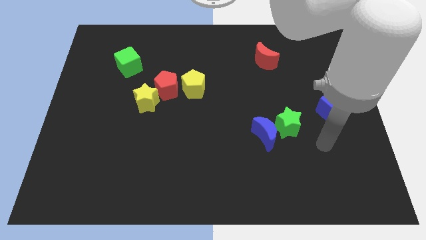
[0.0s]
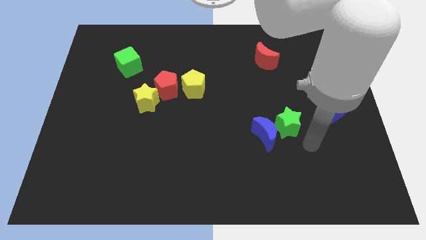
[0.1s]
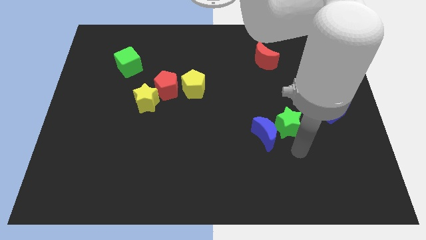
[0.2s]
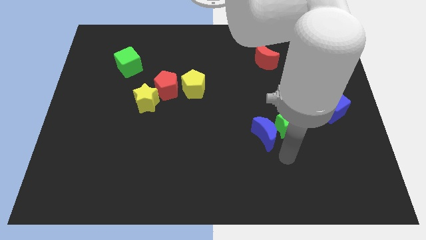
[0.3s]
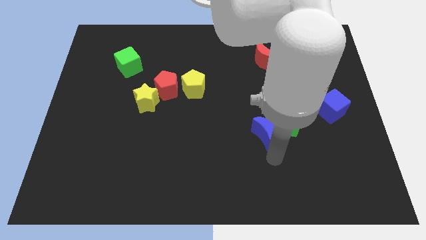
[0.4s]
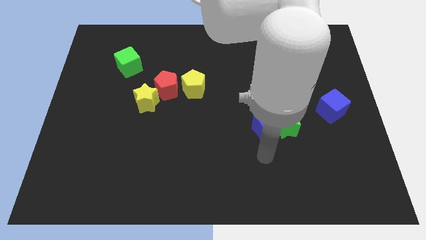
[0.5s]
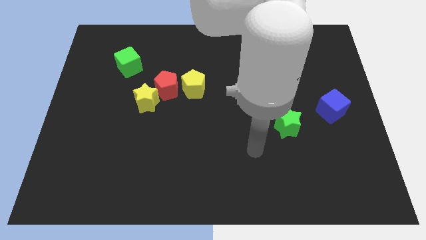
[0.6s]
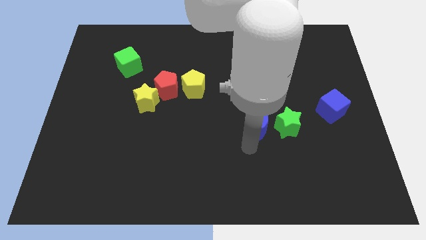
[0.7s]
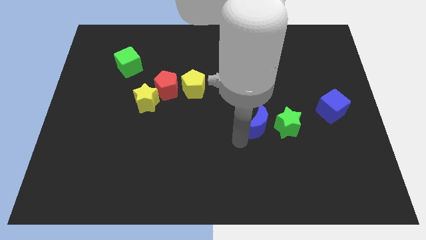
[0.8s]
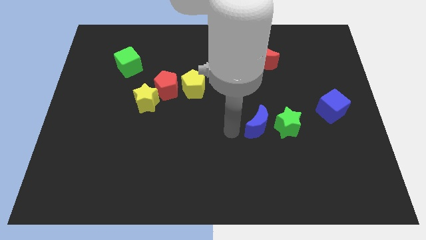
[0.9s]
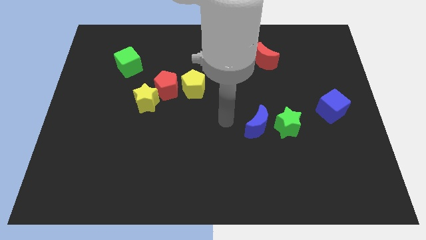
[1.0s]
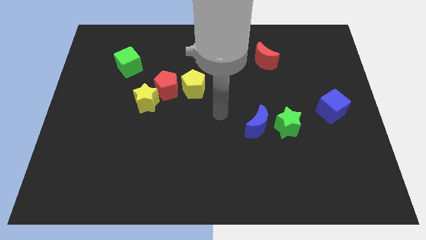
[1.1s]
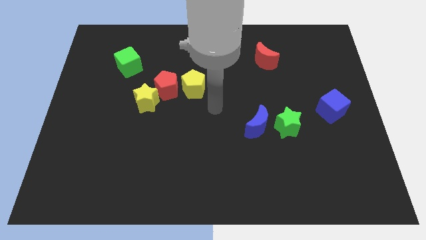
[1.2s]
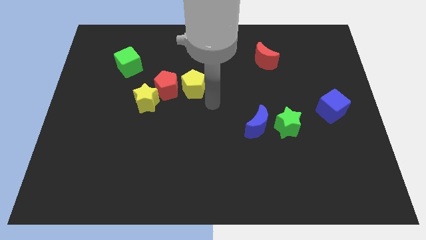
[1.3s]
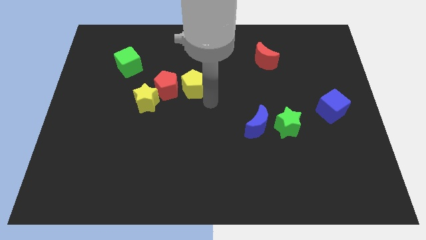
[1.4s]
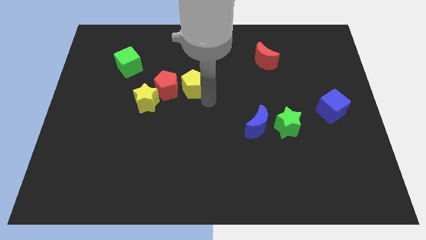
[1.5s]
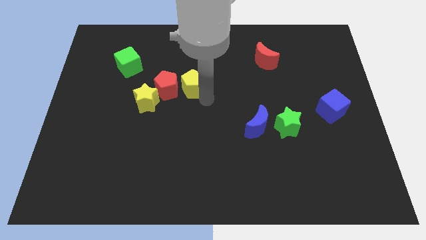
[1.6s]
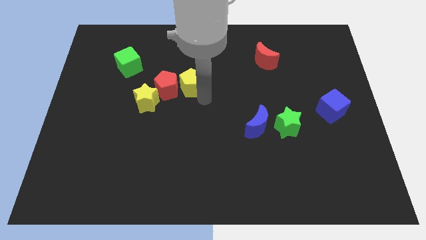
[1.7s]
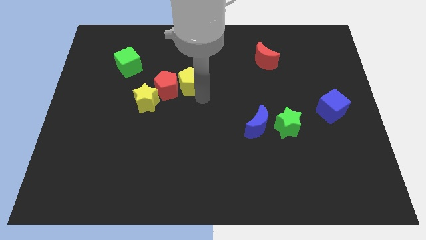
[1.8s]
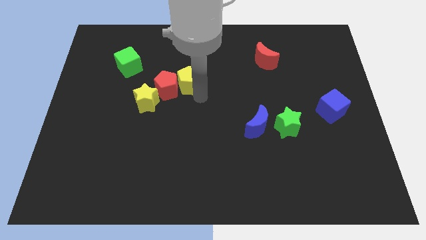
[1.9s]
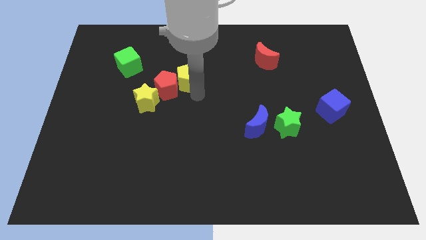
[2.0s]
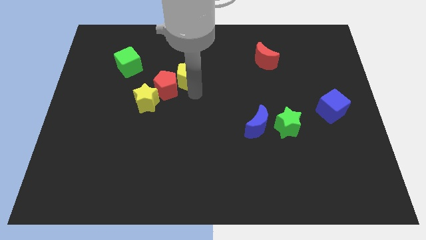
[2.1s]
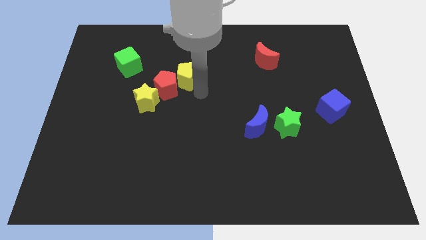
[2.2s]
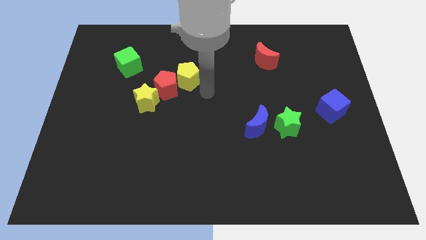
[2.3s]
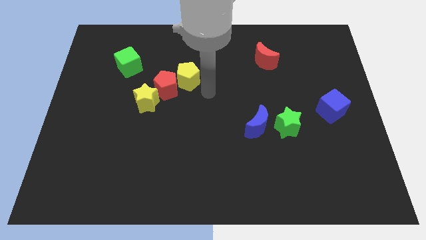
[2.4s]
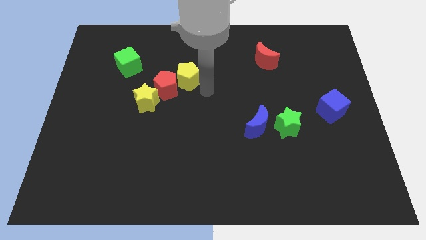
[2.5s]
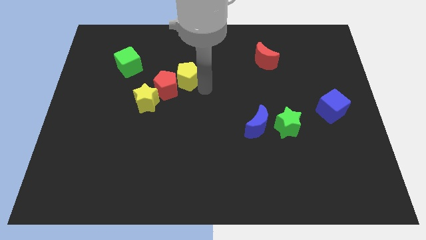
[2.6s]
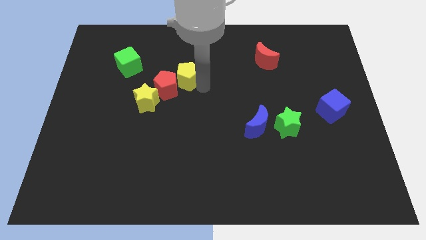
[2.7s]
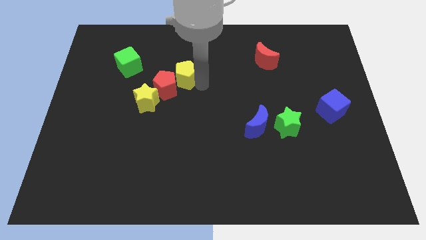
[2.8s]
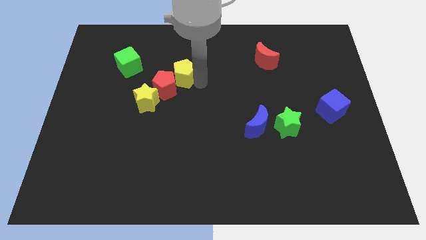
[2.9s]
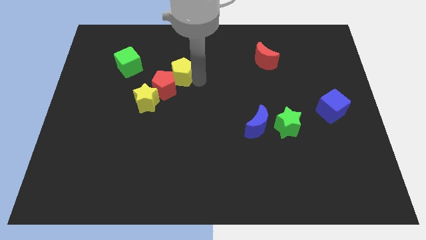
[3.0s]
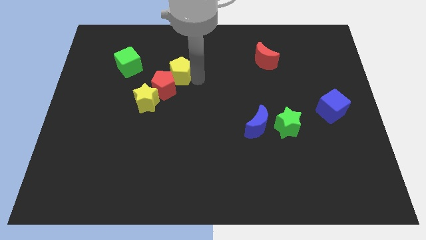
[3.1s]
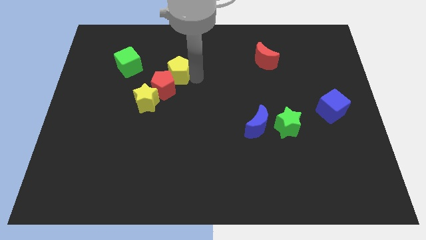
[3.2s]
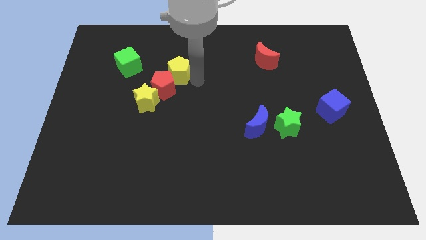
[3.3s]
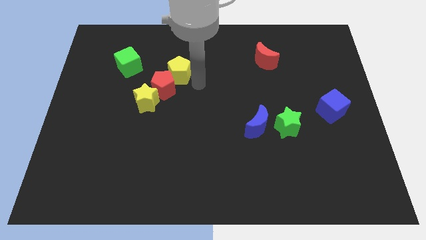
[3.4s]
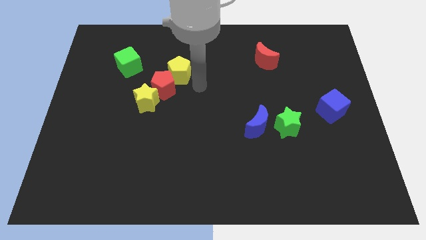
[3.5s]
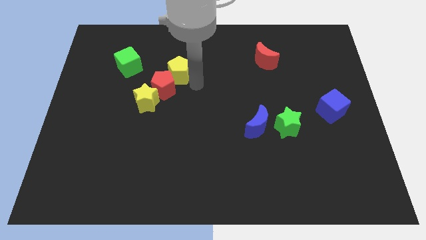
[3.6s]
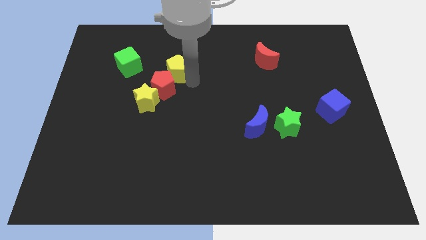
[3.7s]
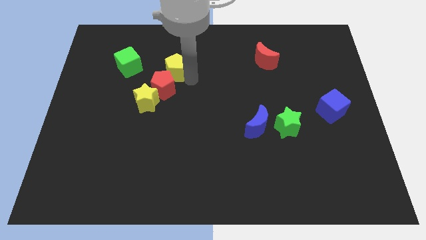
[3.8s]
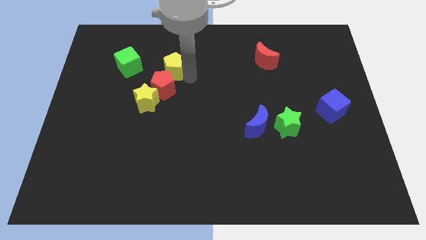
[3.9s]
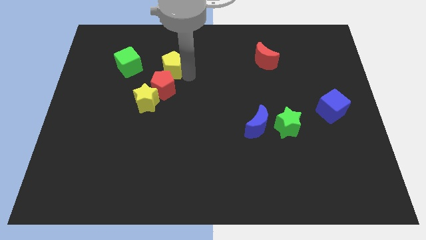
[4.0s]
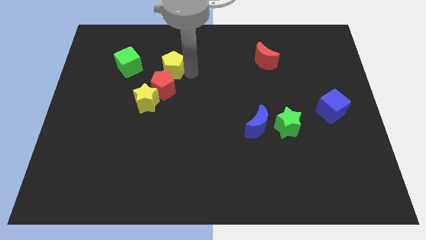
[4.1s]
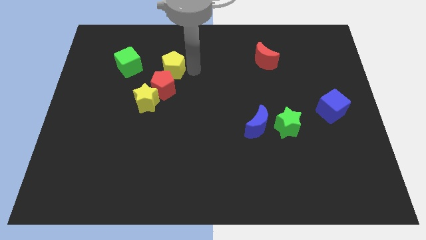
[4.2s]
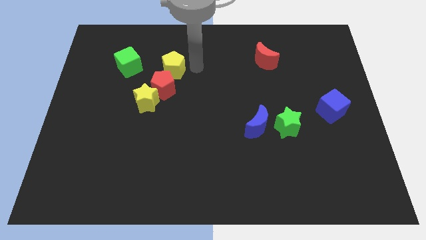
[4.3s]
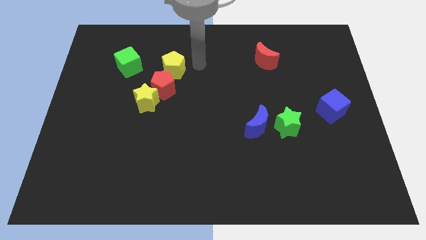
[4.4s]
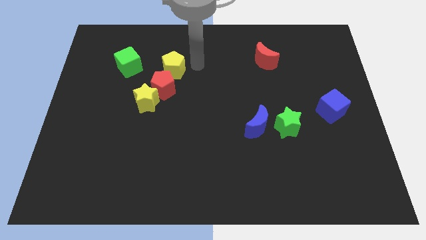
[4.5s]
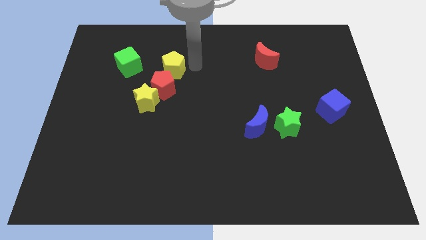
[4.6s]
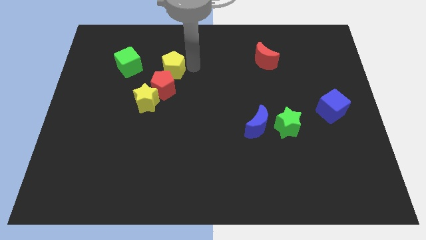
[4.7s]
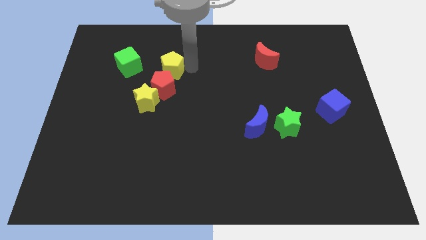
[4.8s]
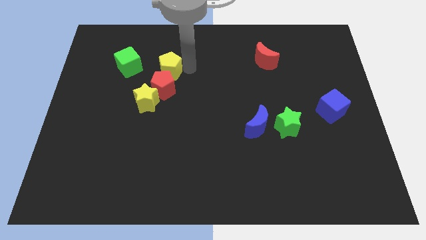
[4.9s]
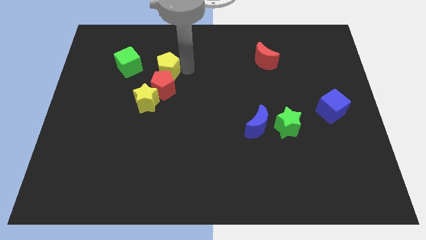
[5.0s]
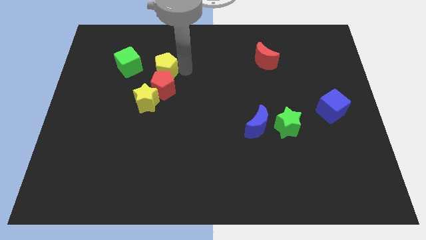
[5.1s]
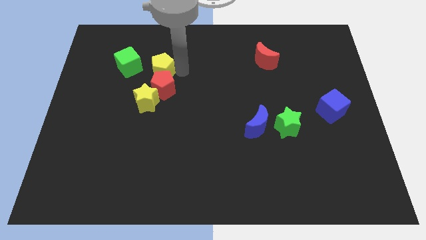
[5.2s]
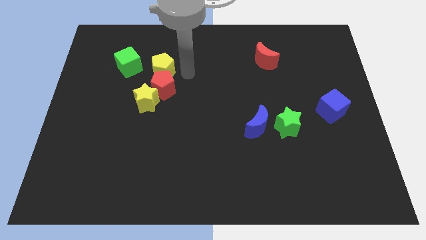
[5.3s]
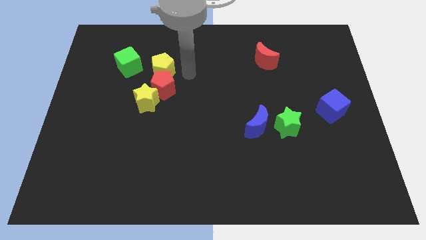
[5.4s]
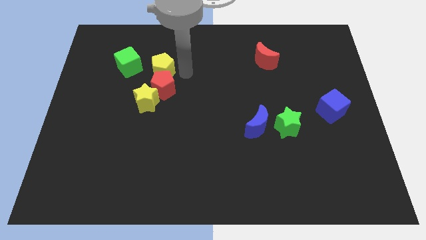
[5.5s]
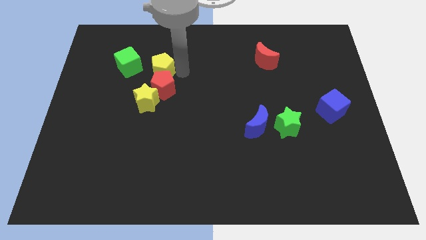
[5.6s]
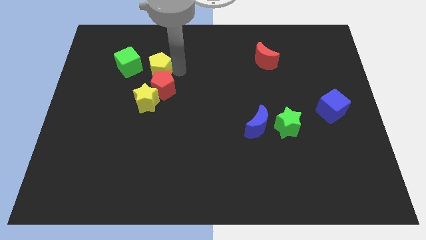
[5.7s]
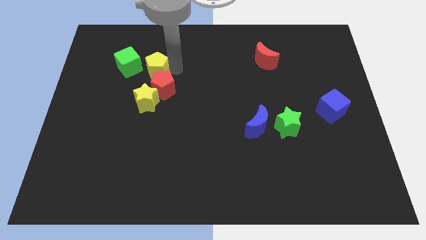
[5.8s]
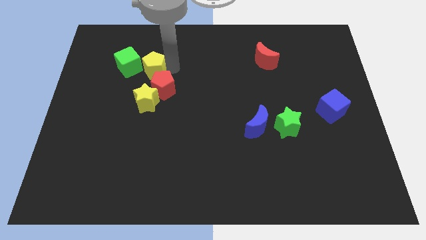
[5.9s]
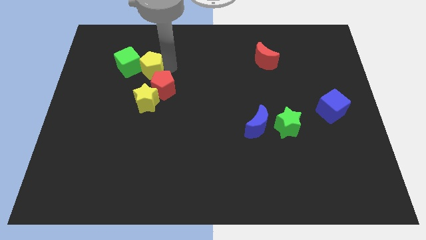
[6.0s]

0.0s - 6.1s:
move the yellow pentagon to the green cube

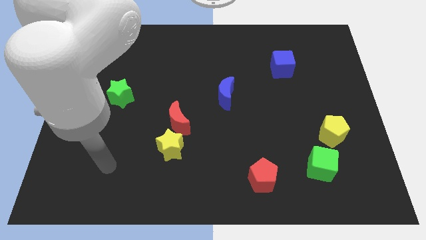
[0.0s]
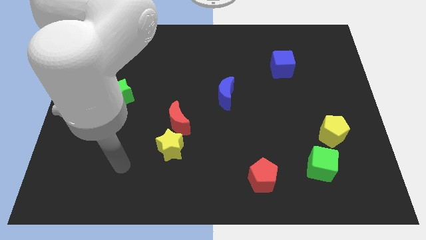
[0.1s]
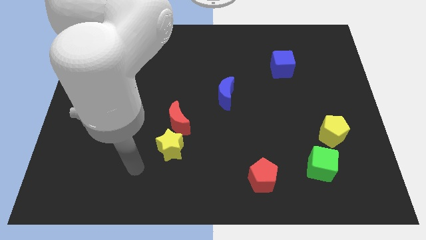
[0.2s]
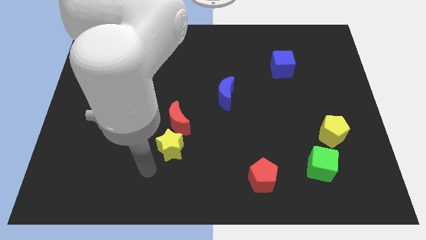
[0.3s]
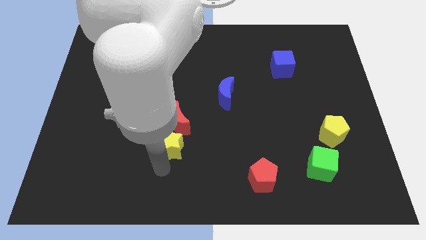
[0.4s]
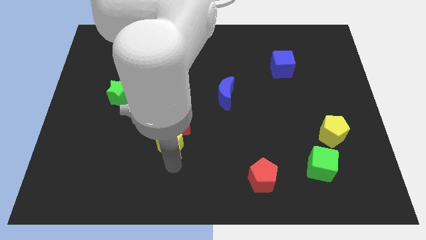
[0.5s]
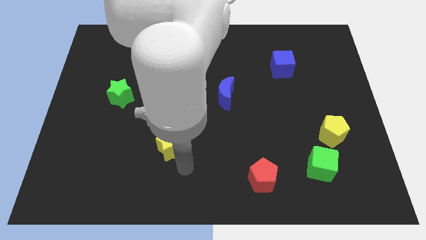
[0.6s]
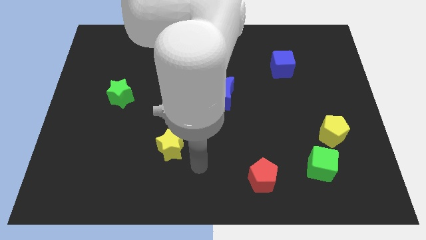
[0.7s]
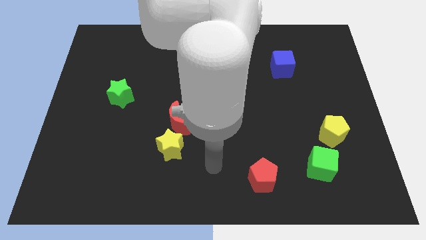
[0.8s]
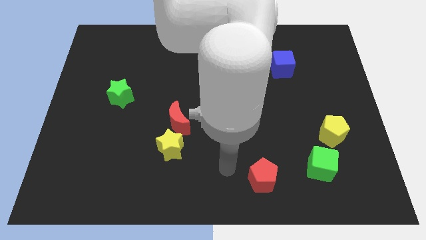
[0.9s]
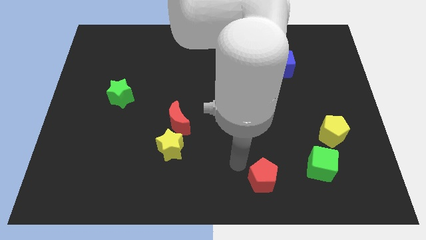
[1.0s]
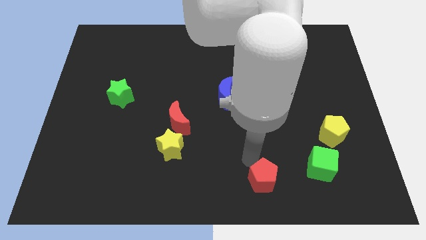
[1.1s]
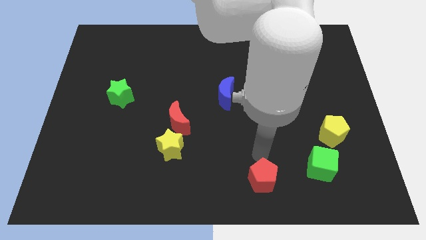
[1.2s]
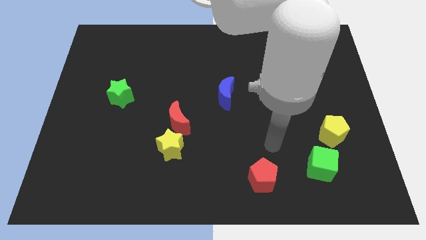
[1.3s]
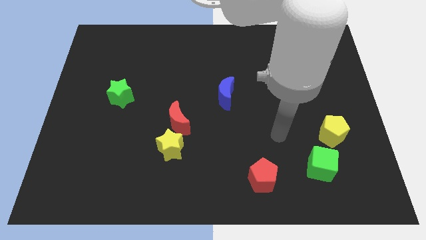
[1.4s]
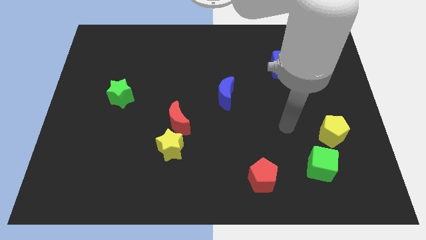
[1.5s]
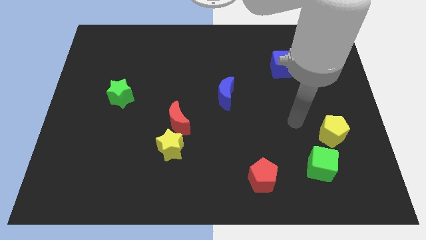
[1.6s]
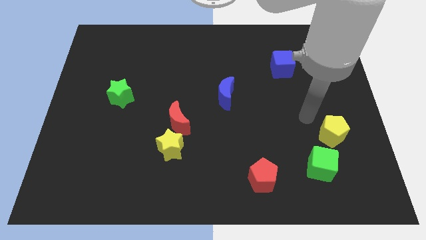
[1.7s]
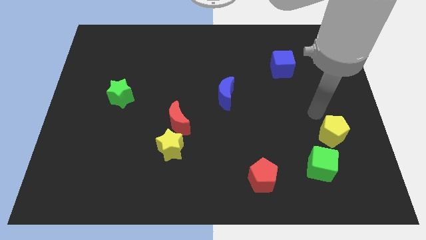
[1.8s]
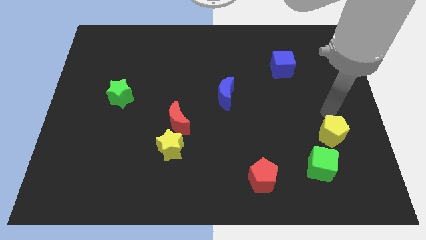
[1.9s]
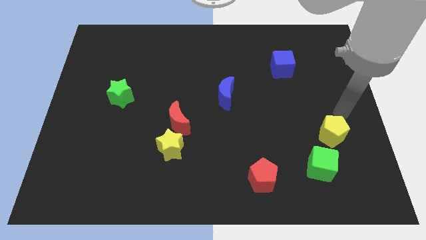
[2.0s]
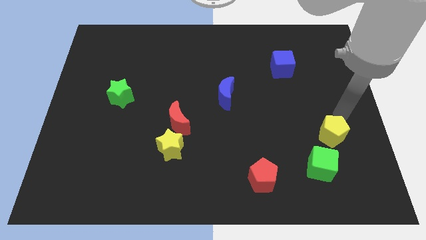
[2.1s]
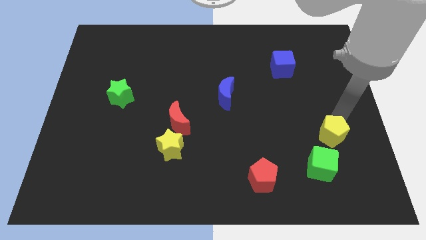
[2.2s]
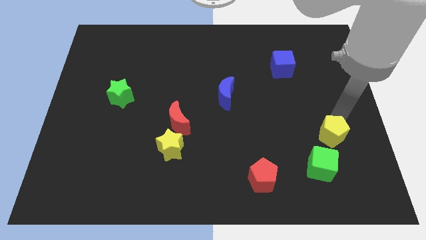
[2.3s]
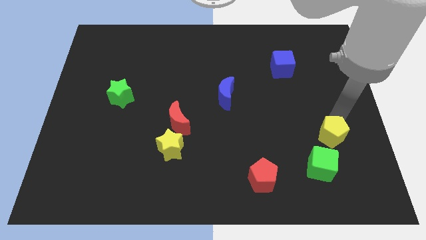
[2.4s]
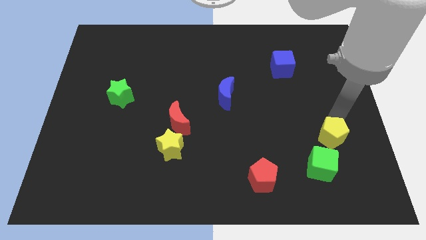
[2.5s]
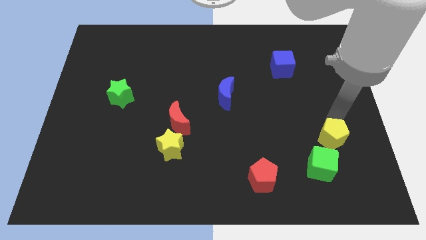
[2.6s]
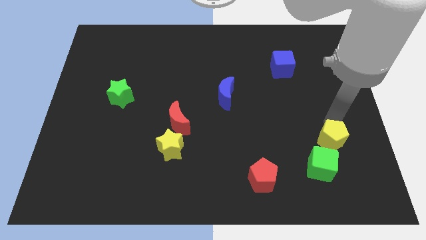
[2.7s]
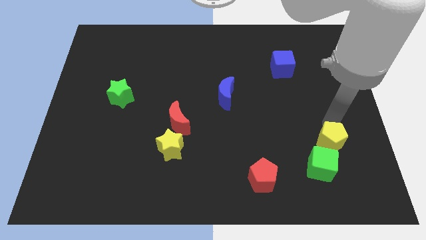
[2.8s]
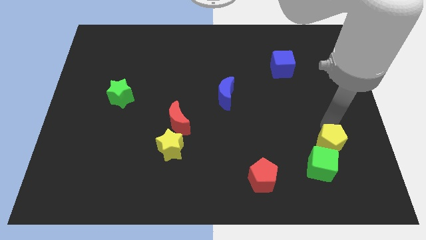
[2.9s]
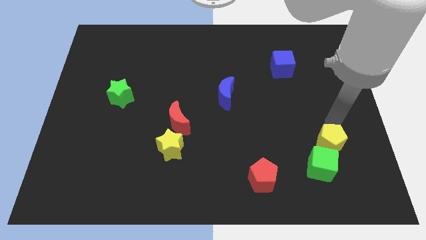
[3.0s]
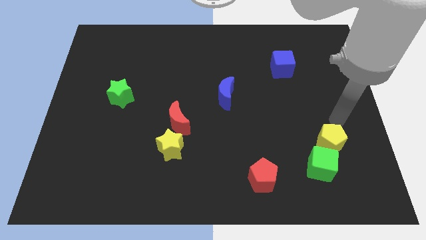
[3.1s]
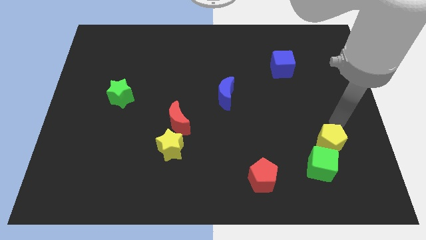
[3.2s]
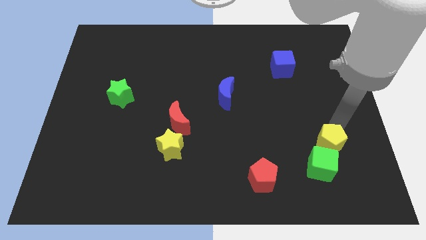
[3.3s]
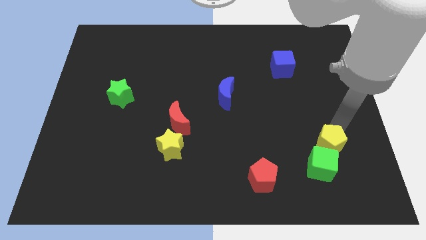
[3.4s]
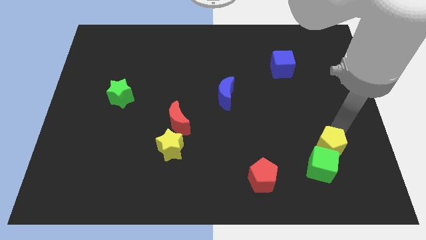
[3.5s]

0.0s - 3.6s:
slide the yellow pentagon close to the green cube
